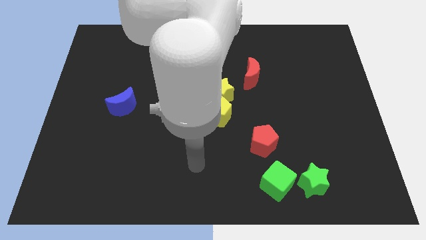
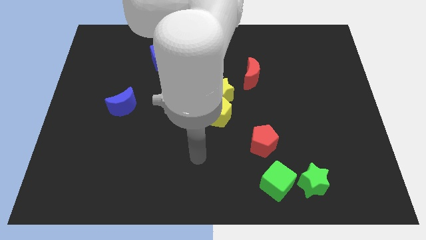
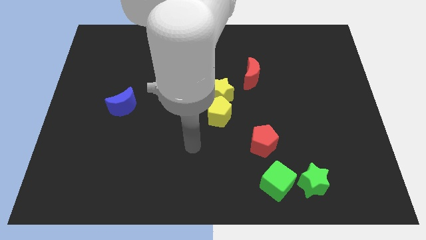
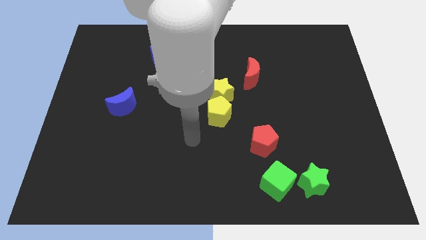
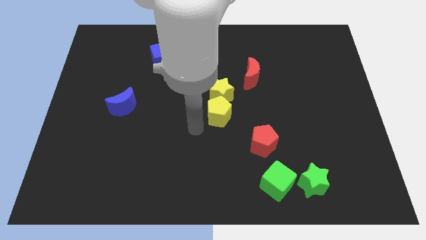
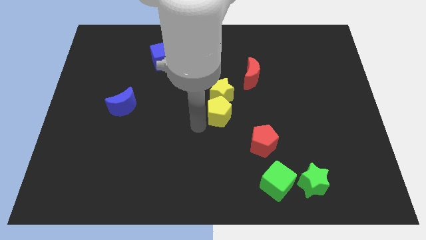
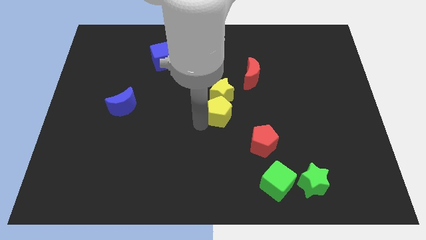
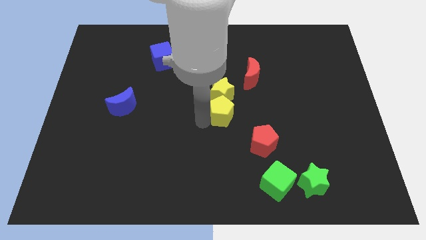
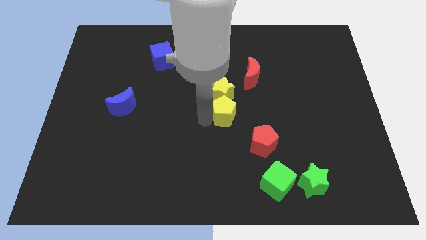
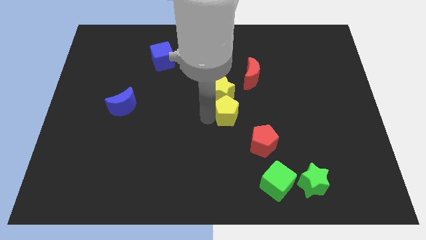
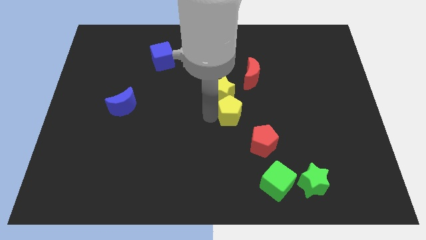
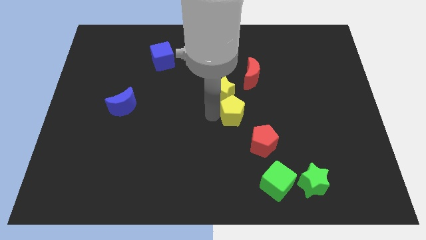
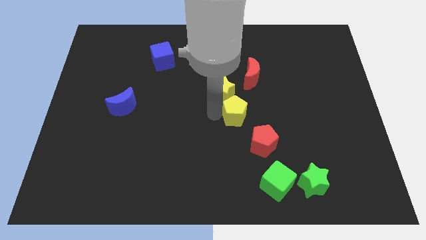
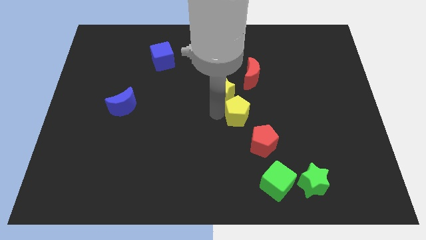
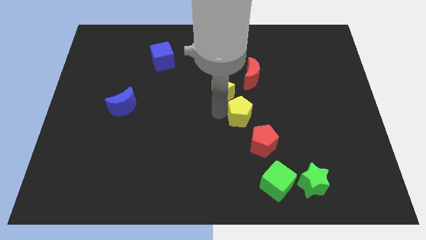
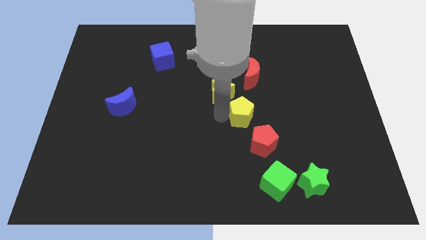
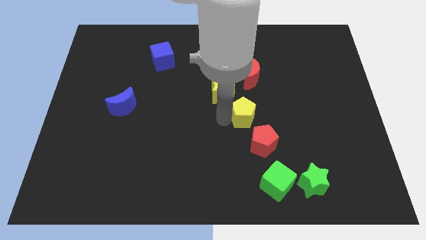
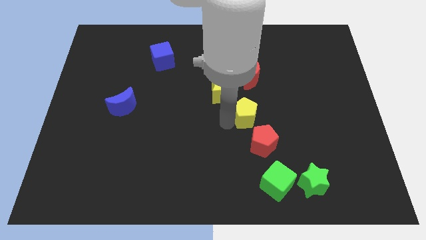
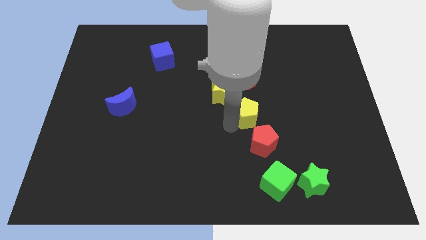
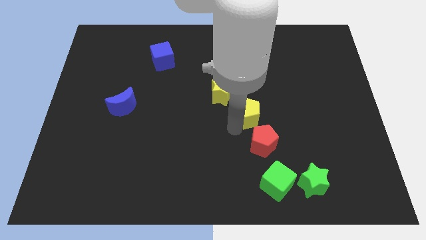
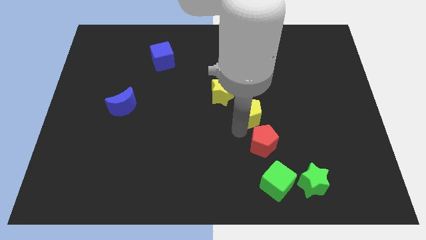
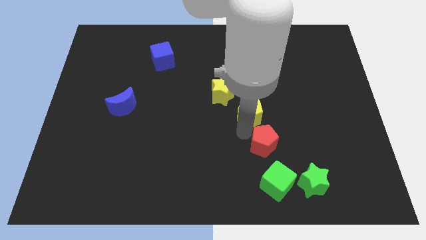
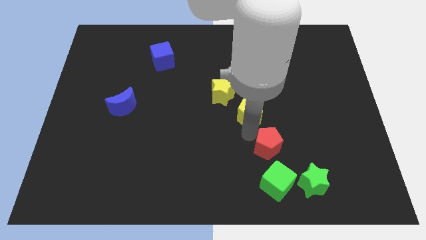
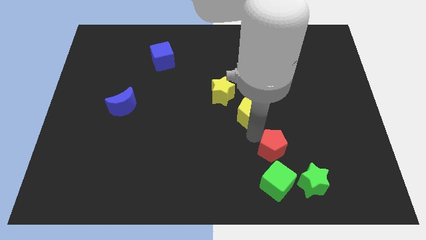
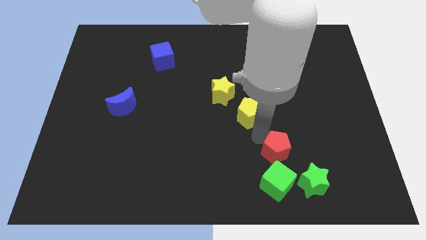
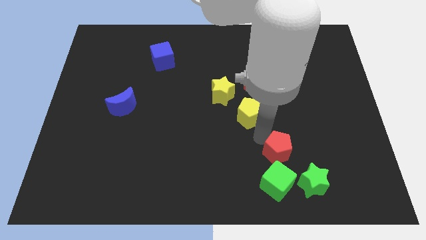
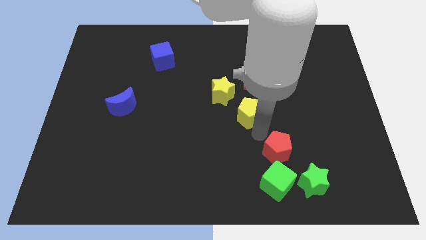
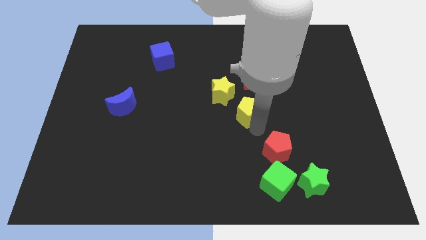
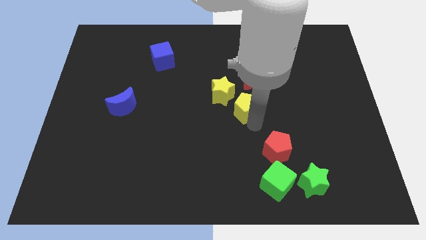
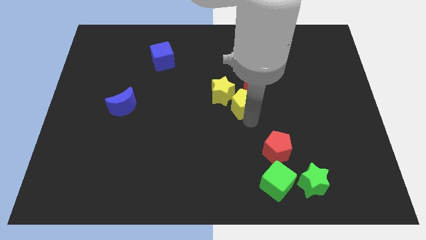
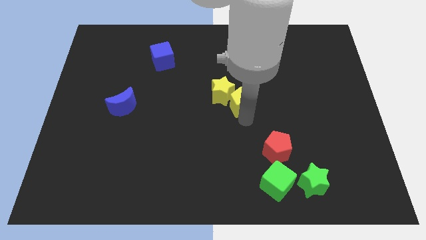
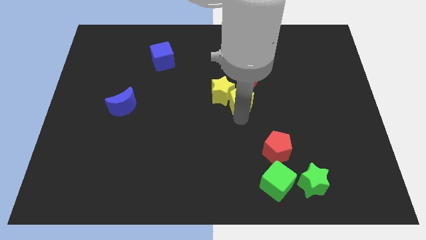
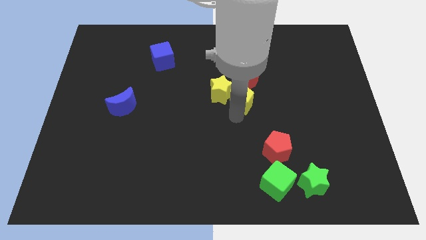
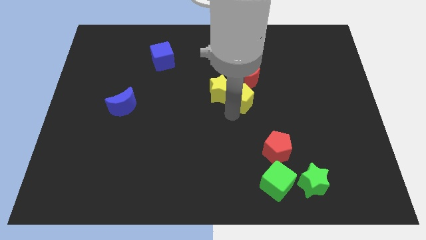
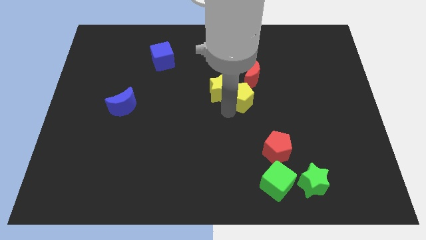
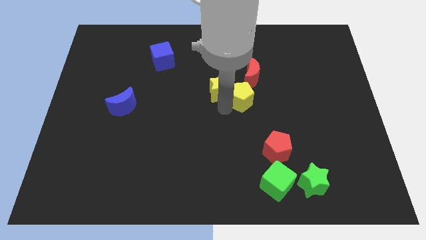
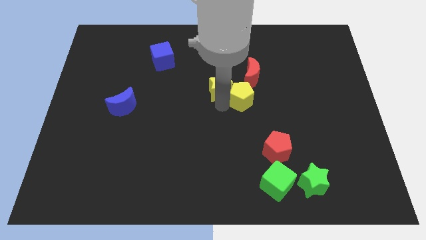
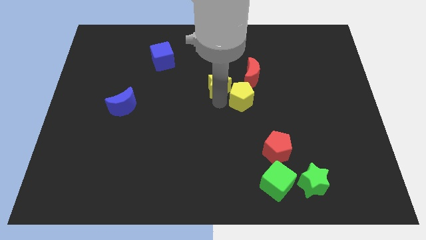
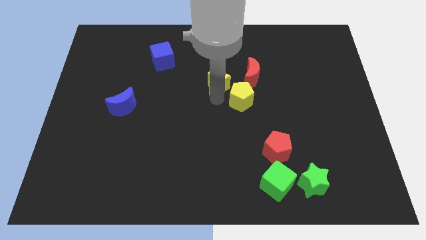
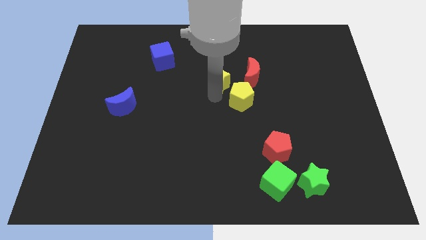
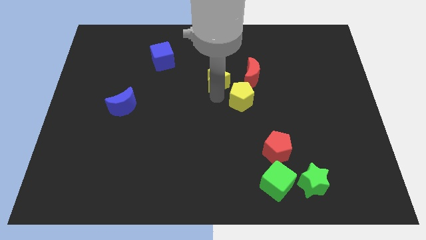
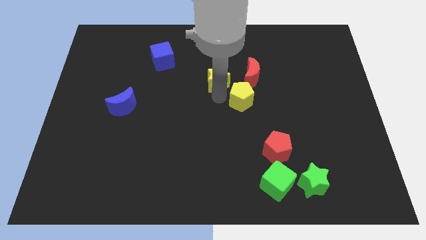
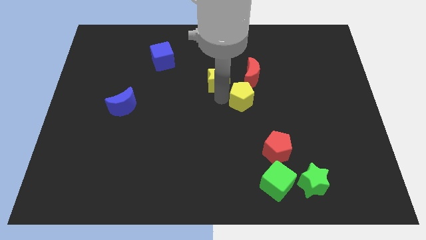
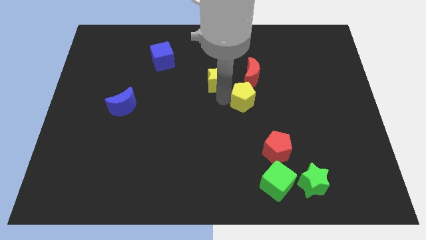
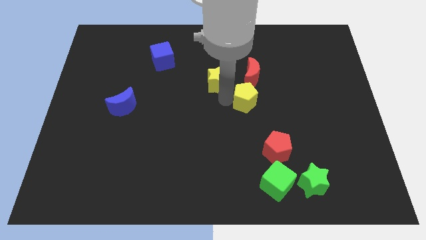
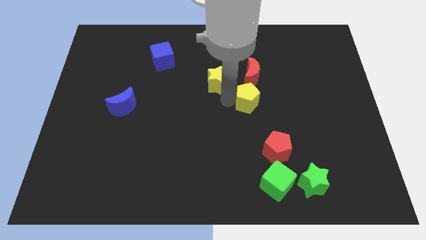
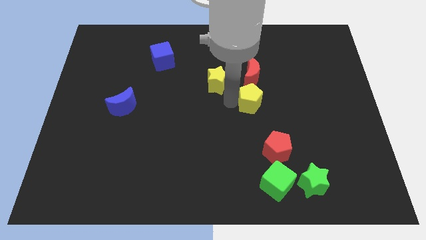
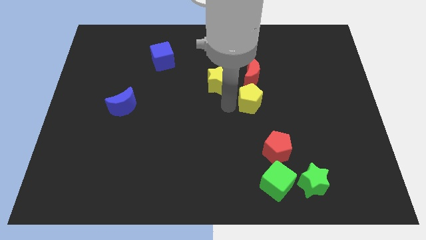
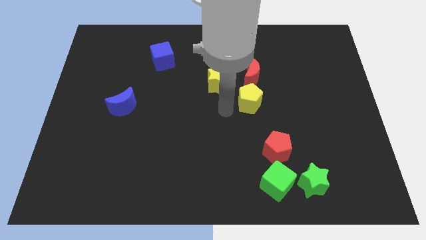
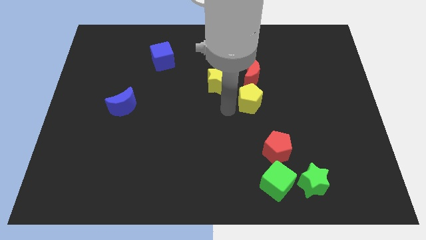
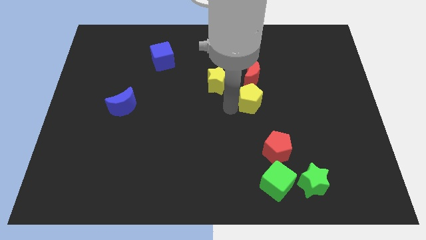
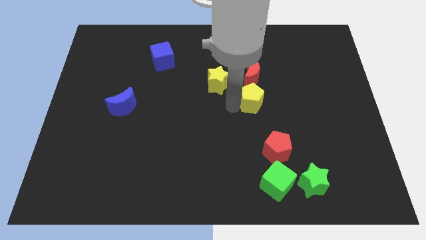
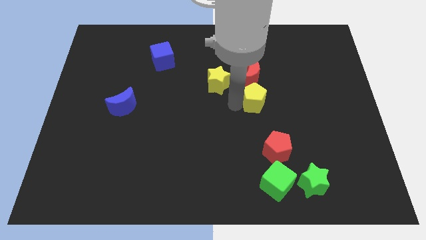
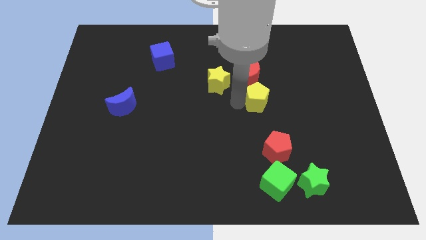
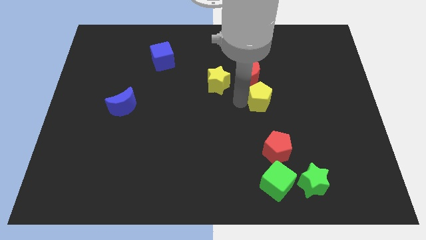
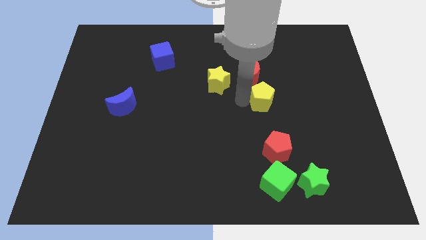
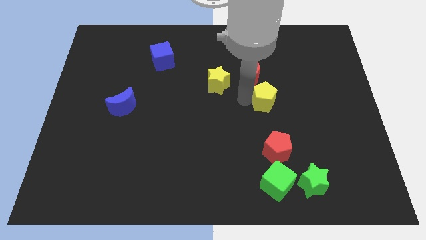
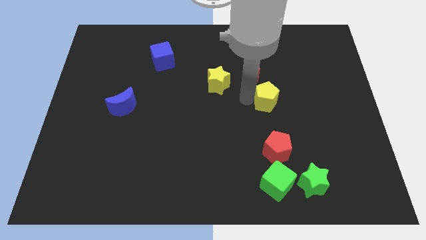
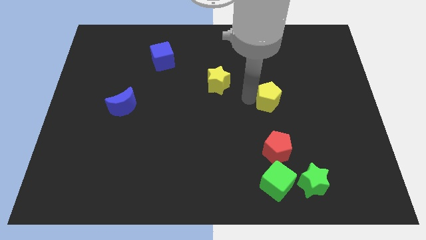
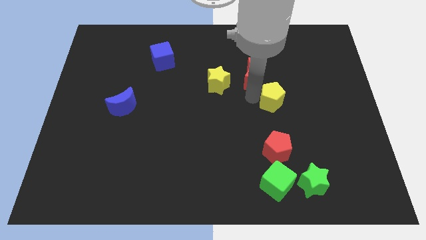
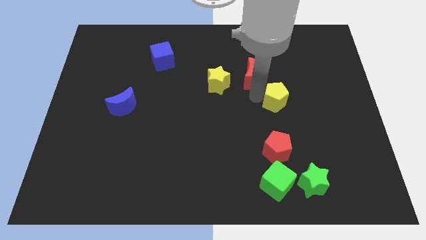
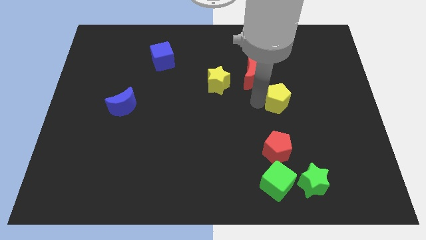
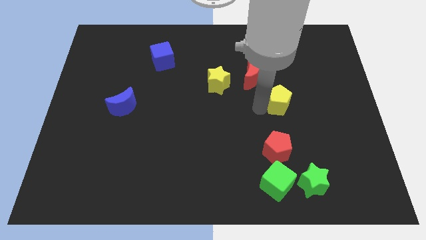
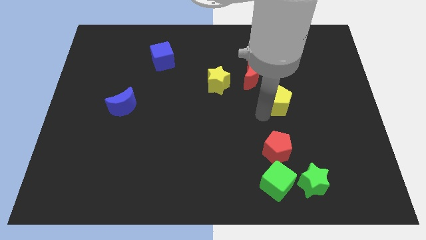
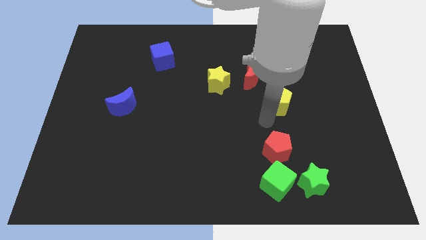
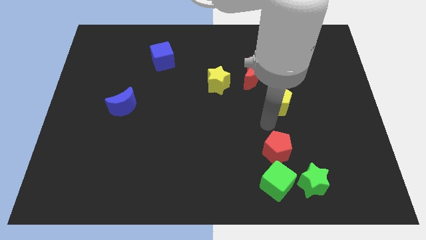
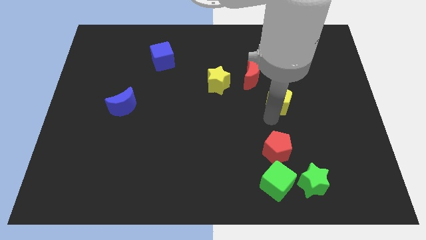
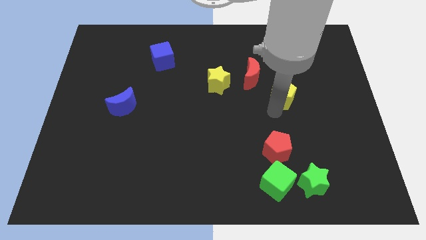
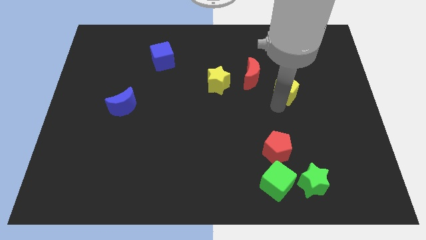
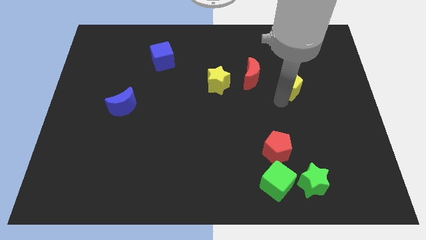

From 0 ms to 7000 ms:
push the yellow pentagon to the right of the red moon

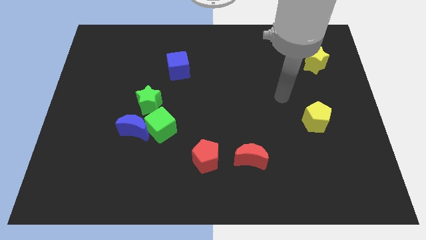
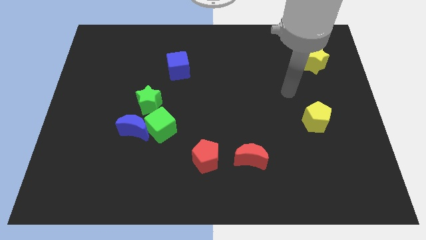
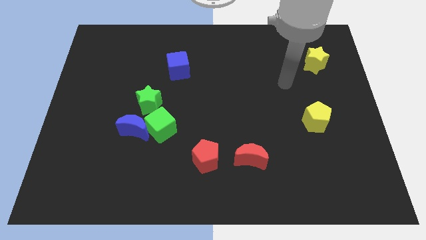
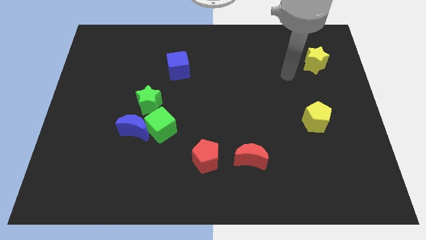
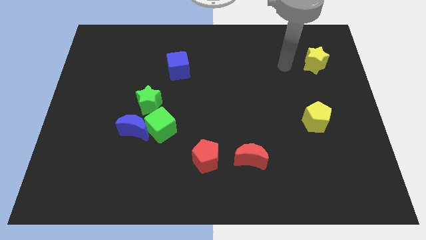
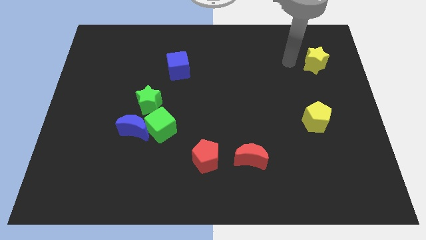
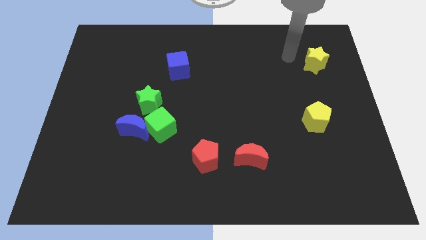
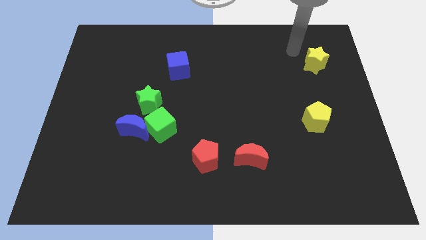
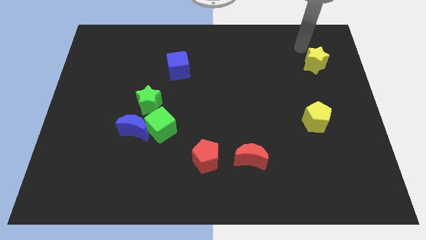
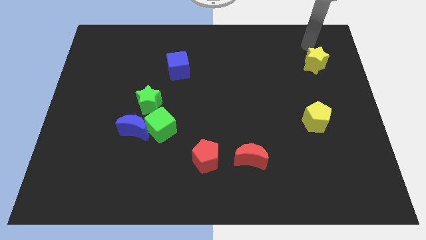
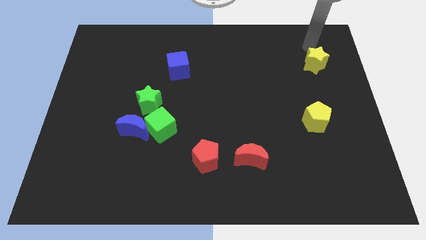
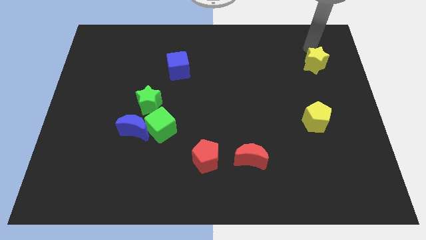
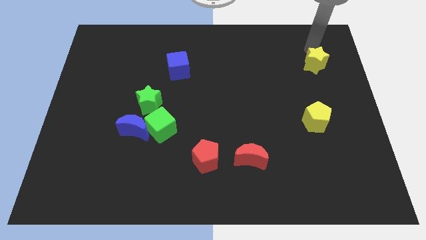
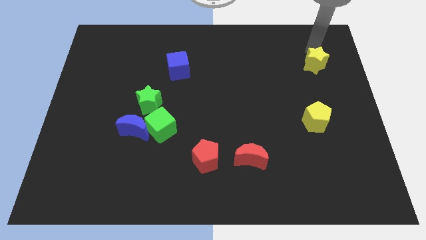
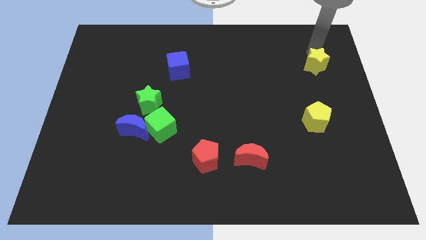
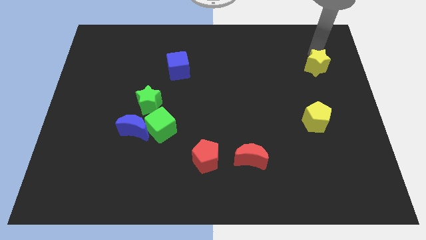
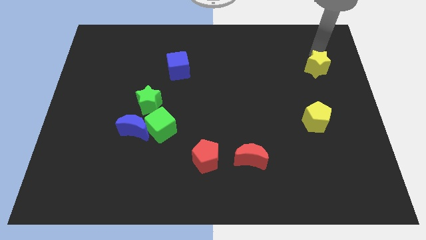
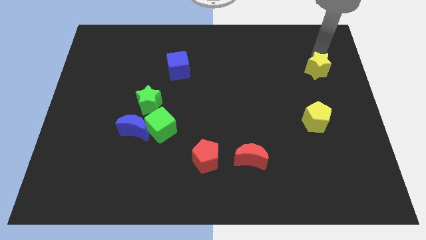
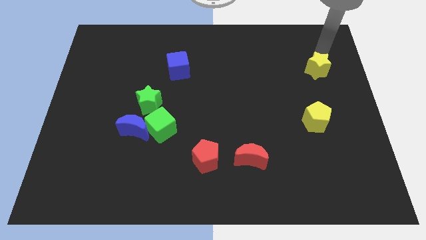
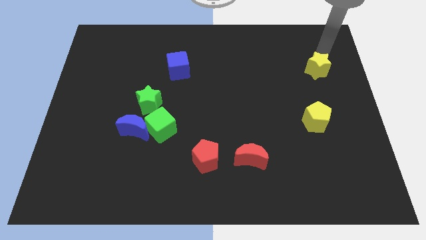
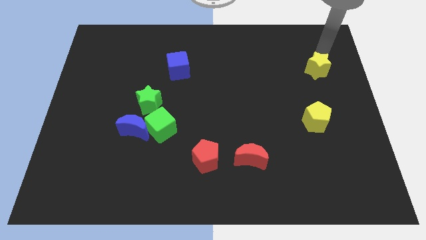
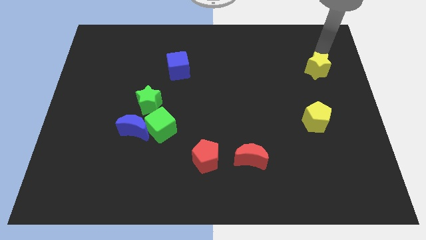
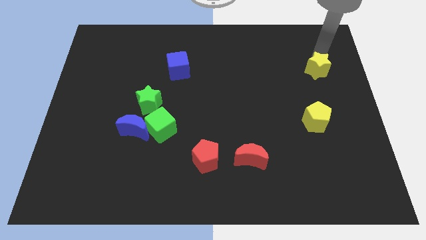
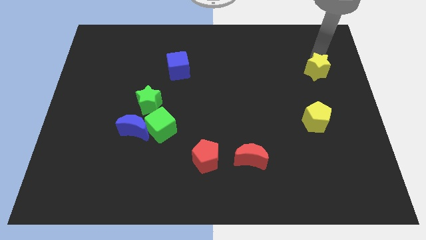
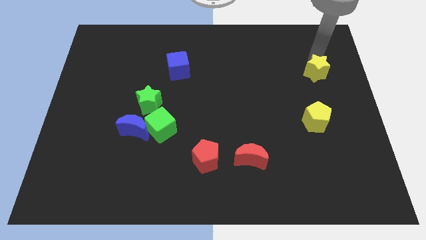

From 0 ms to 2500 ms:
move the yellow star to the top of the yellow pentagon
